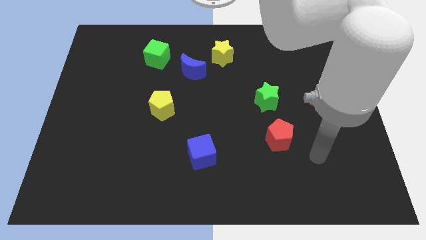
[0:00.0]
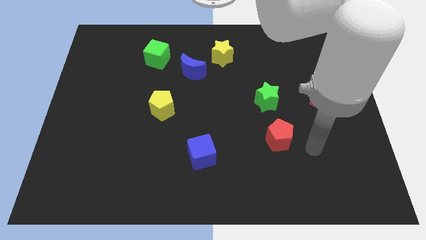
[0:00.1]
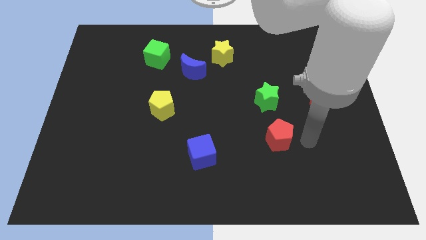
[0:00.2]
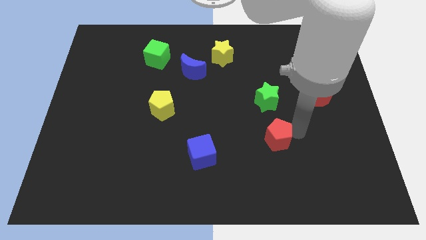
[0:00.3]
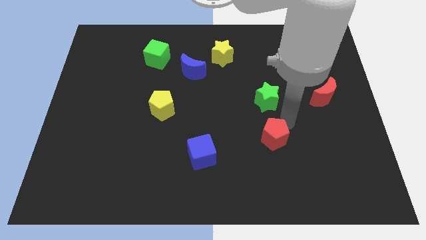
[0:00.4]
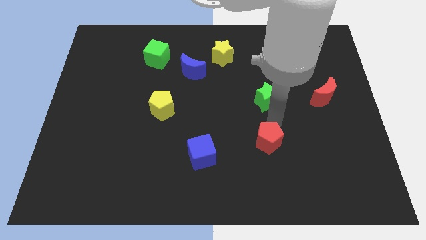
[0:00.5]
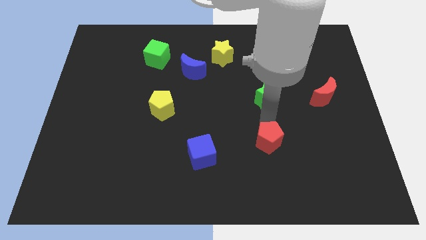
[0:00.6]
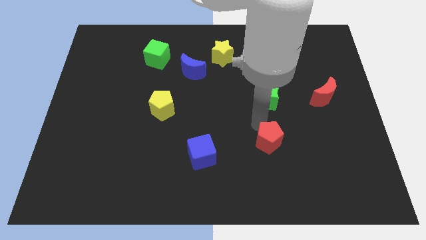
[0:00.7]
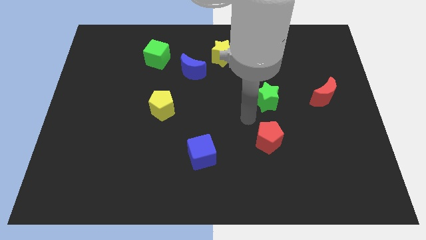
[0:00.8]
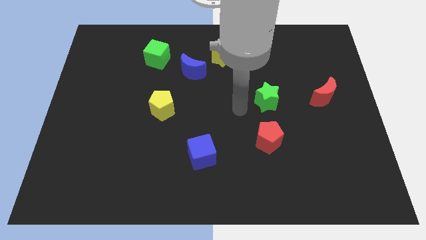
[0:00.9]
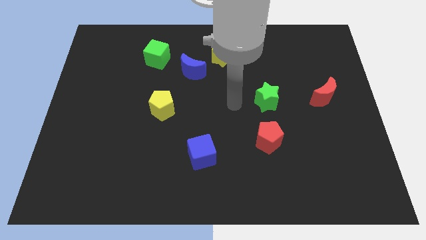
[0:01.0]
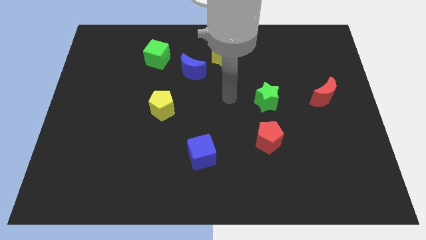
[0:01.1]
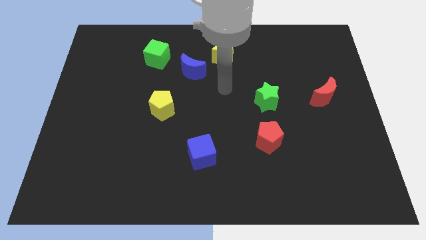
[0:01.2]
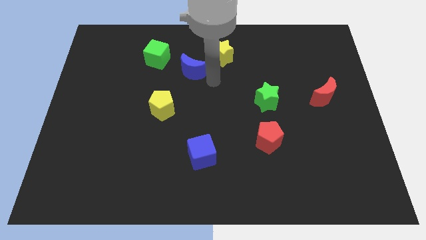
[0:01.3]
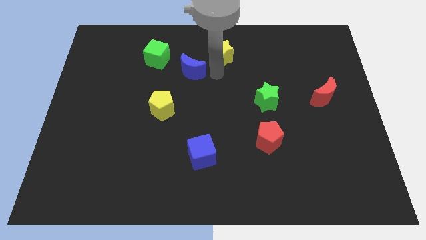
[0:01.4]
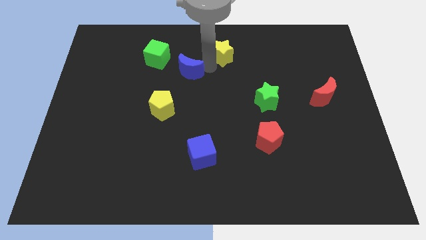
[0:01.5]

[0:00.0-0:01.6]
separate the blue moon from the yellow star

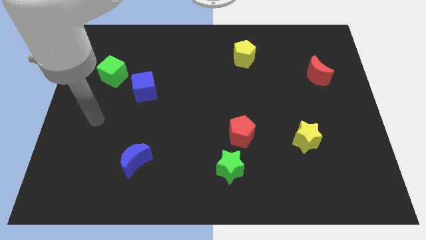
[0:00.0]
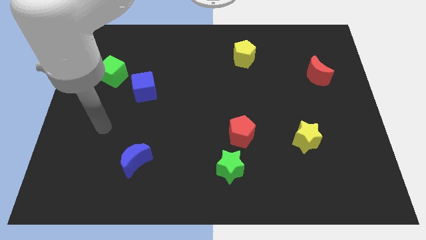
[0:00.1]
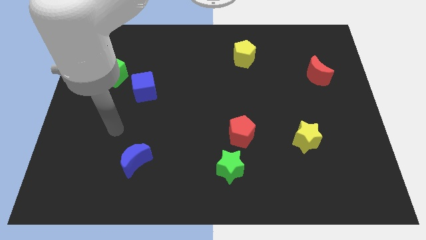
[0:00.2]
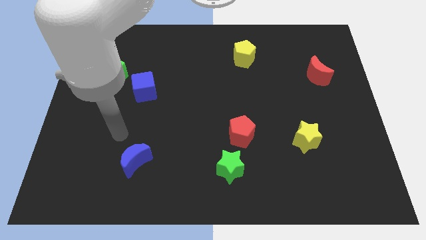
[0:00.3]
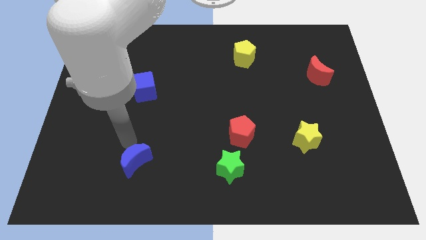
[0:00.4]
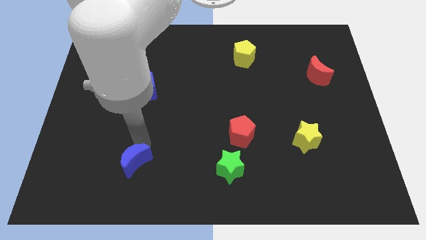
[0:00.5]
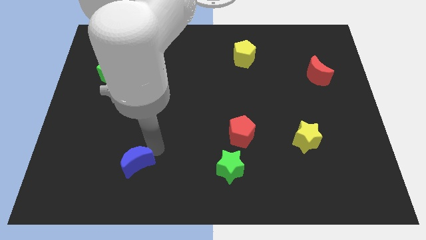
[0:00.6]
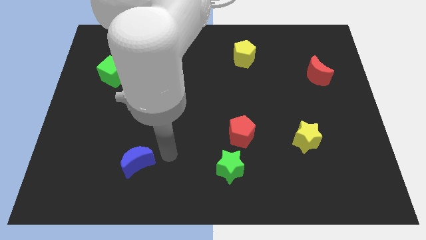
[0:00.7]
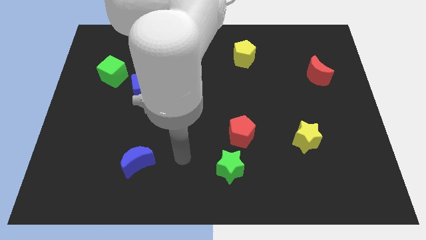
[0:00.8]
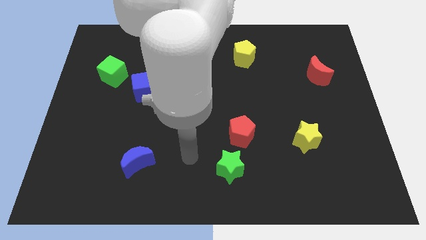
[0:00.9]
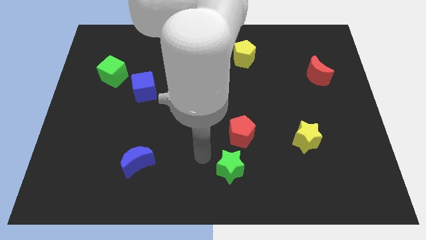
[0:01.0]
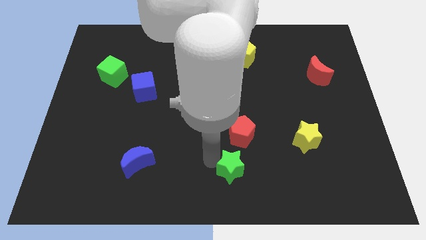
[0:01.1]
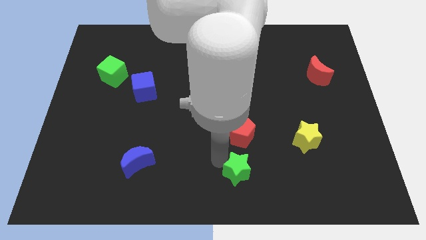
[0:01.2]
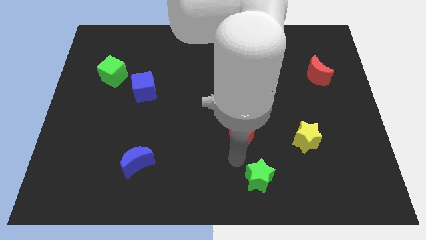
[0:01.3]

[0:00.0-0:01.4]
pull the red pentagon apart from the green star

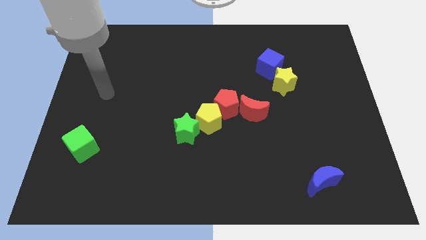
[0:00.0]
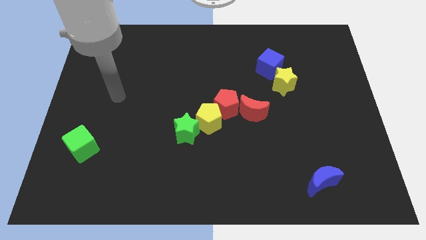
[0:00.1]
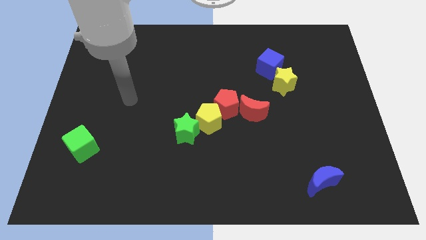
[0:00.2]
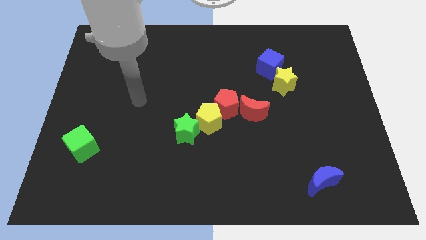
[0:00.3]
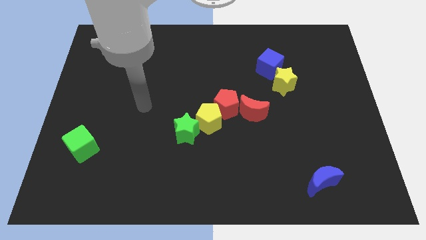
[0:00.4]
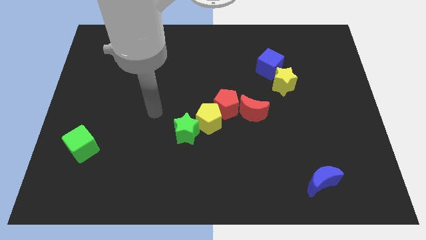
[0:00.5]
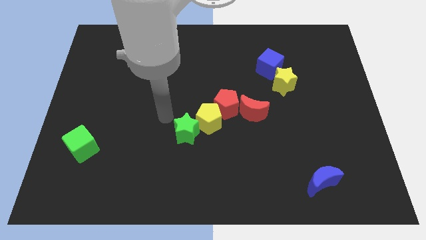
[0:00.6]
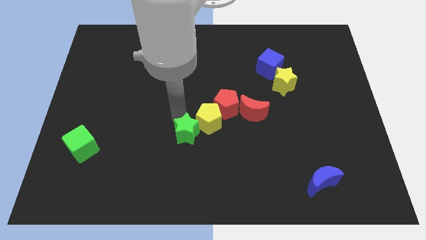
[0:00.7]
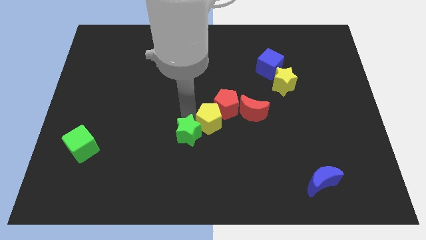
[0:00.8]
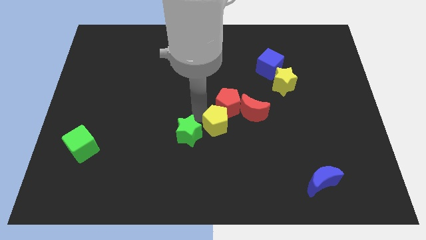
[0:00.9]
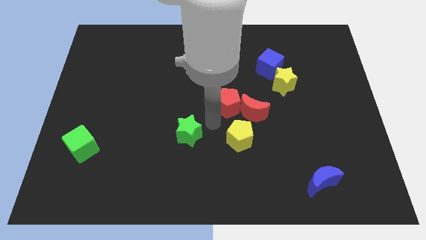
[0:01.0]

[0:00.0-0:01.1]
separate the green star from the yellow pentagon

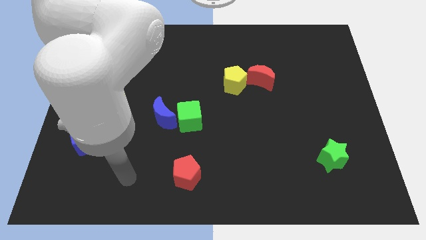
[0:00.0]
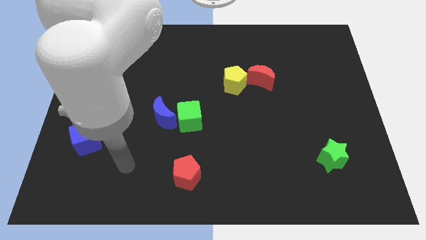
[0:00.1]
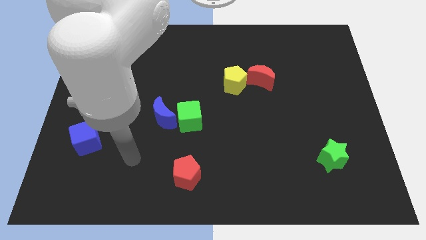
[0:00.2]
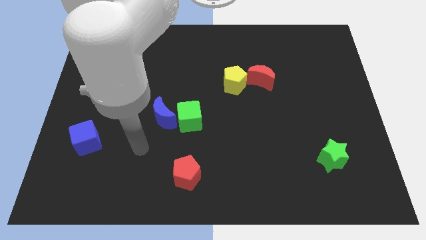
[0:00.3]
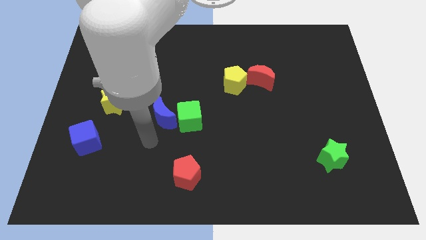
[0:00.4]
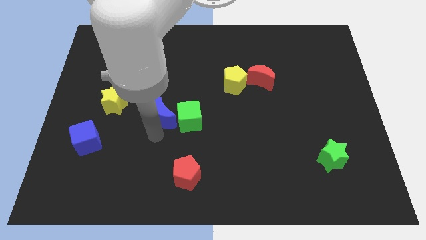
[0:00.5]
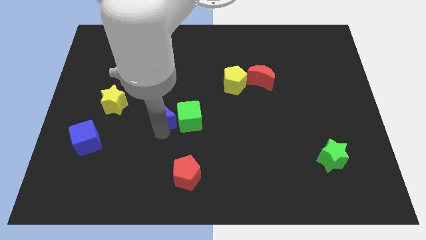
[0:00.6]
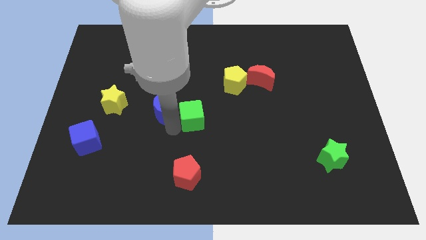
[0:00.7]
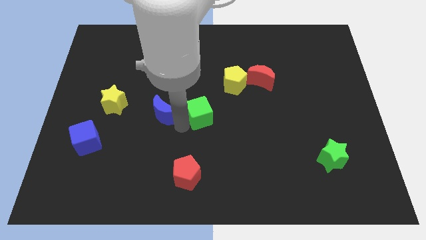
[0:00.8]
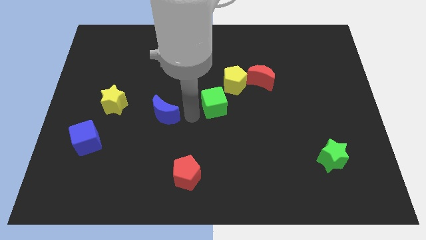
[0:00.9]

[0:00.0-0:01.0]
pull the blue moon apart from the green cube

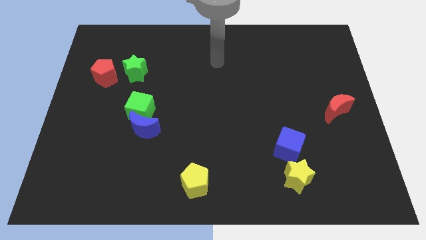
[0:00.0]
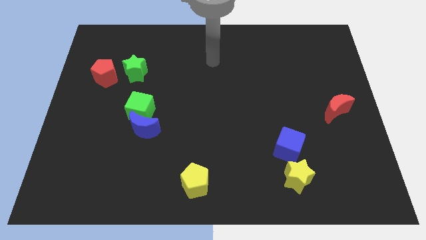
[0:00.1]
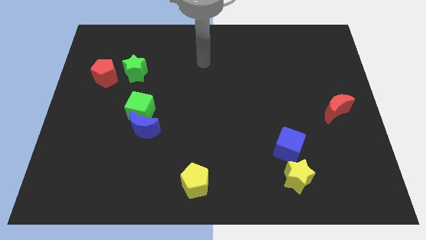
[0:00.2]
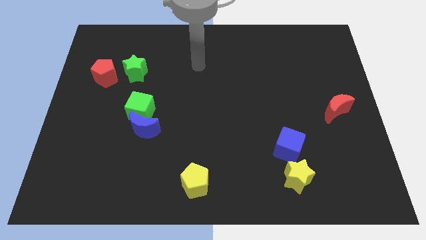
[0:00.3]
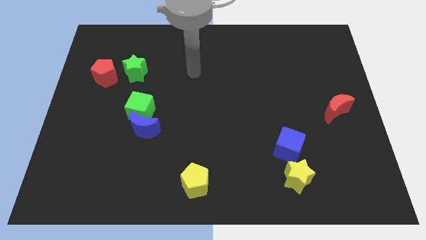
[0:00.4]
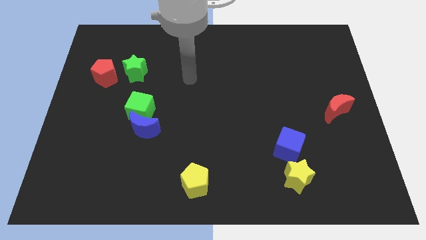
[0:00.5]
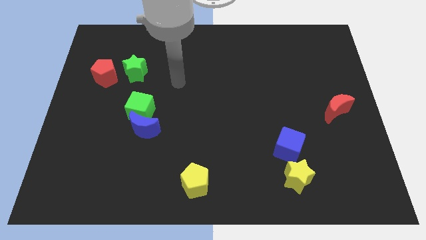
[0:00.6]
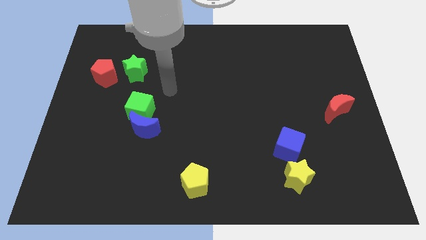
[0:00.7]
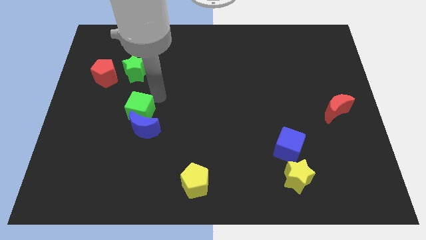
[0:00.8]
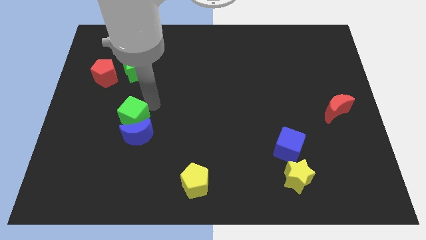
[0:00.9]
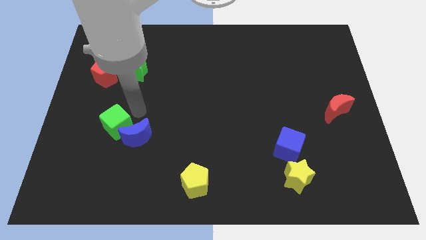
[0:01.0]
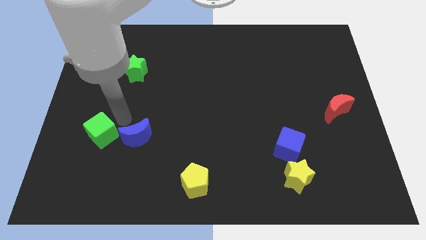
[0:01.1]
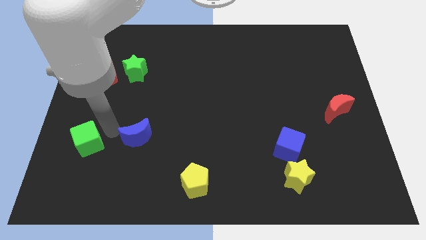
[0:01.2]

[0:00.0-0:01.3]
move the blue moon away from the green cube

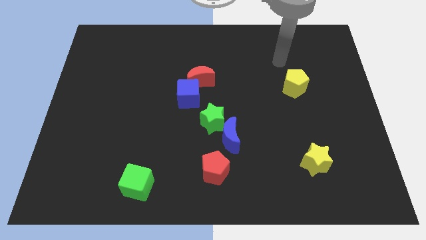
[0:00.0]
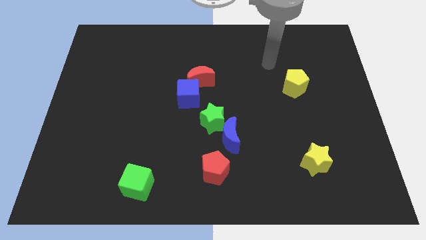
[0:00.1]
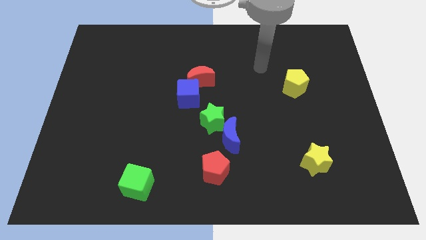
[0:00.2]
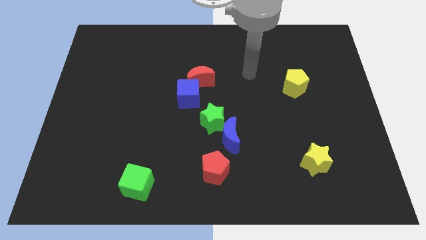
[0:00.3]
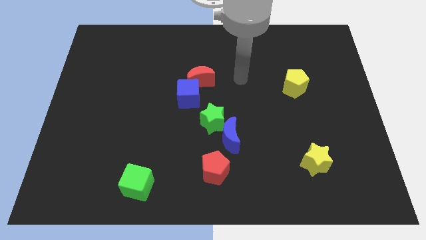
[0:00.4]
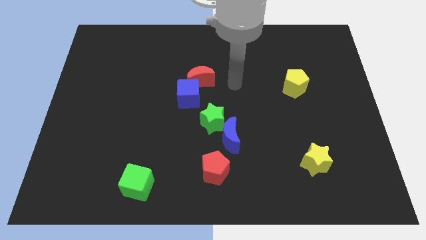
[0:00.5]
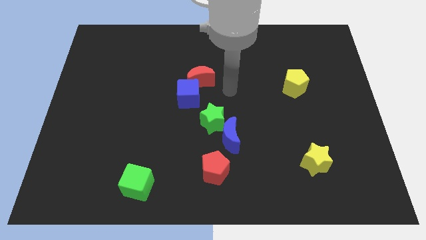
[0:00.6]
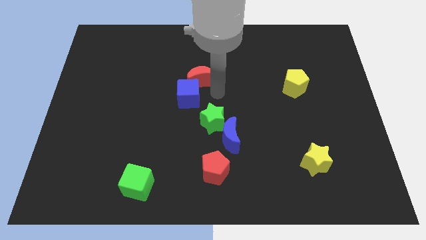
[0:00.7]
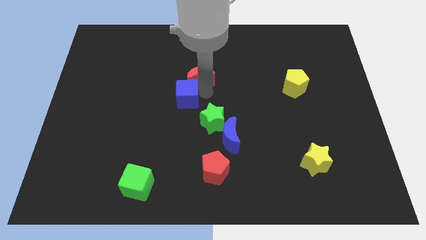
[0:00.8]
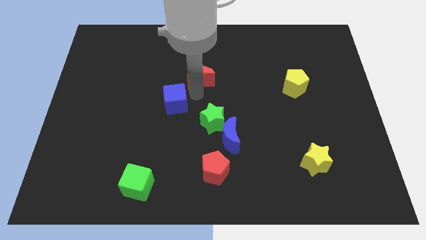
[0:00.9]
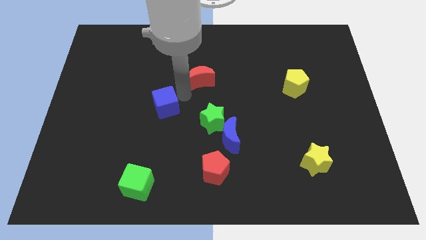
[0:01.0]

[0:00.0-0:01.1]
separate the red moon from the blue cube

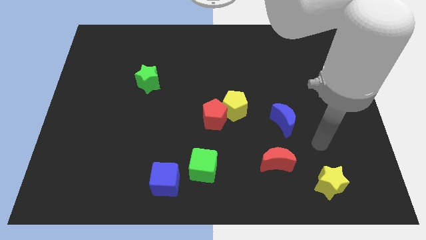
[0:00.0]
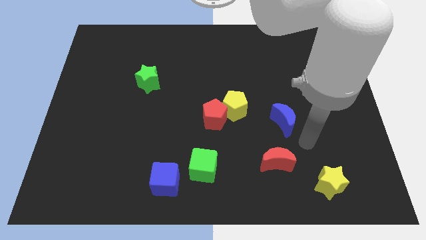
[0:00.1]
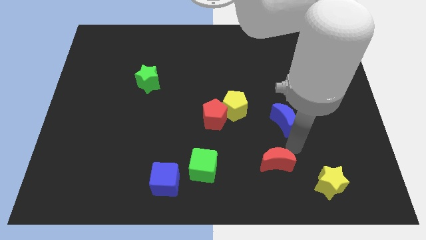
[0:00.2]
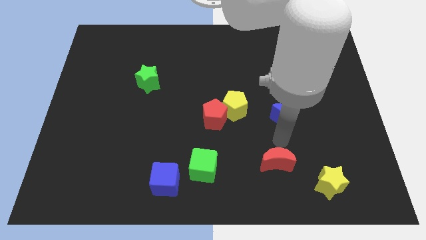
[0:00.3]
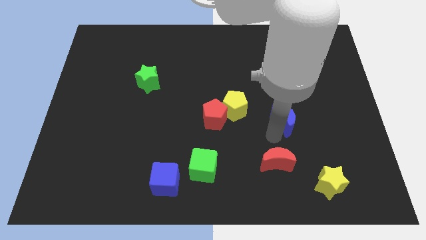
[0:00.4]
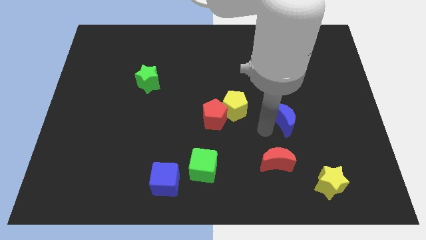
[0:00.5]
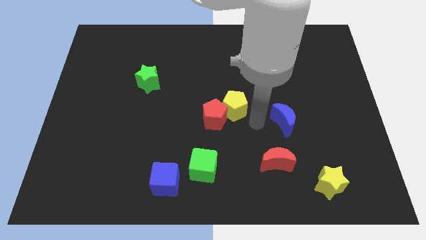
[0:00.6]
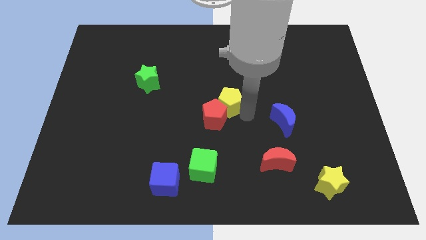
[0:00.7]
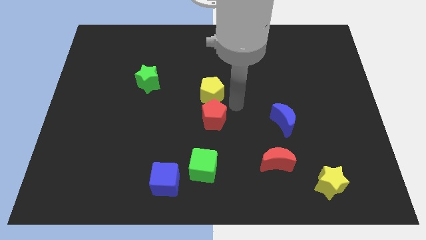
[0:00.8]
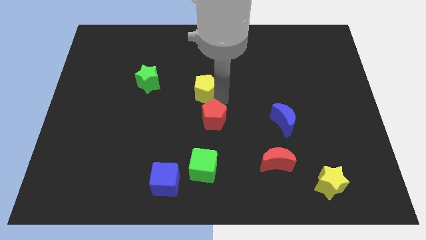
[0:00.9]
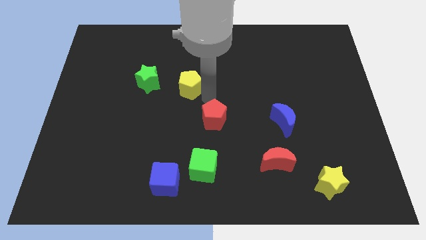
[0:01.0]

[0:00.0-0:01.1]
move the red pentagon away from the yellow pentagon

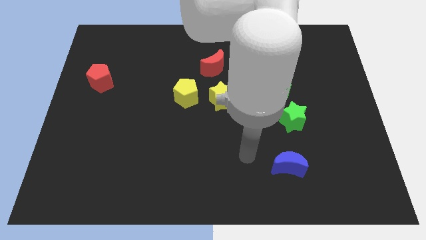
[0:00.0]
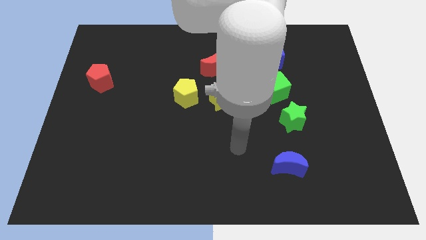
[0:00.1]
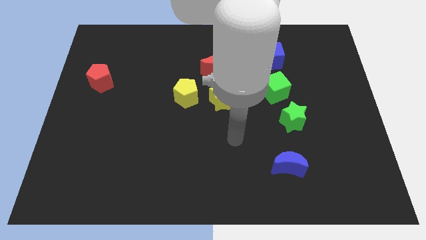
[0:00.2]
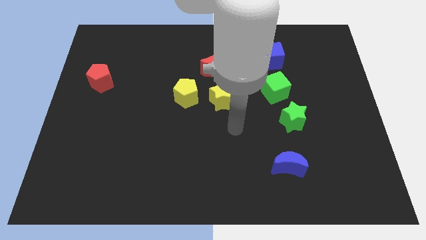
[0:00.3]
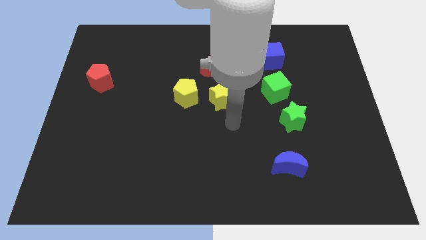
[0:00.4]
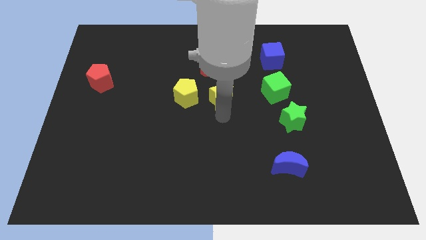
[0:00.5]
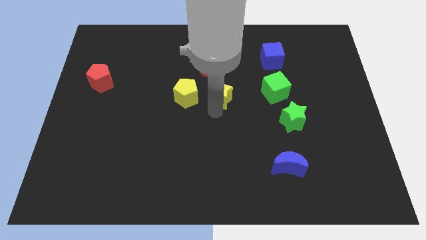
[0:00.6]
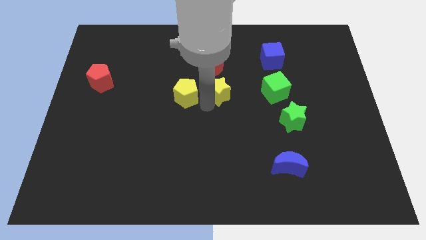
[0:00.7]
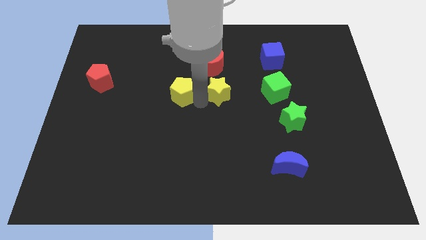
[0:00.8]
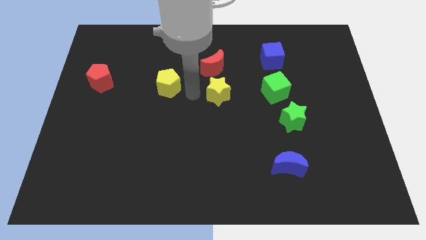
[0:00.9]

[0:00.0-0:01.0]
separate the yellow star from the yellow pentagon
